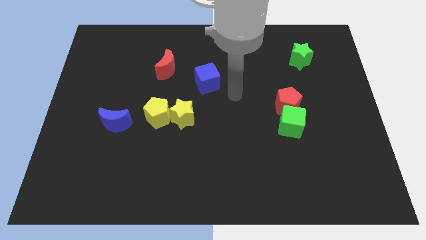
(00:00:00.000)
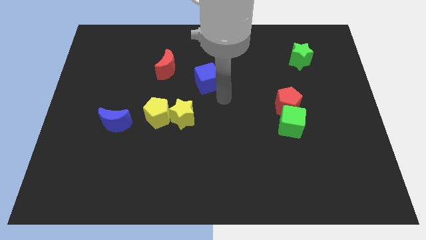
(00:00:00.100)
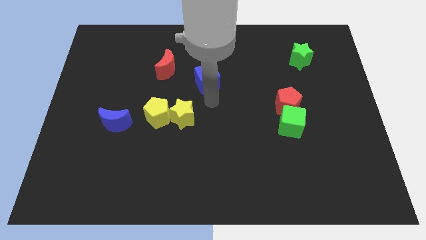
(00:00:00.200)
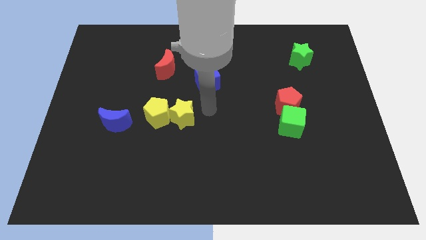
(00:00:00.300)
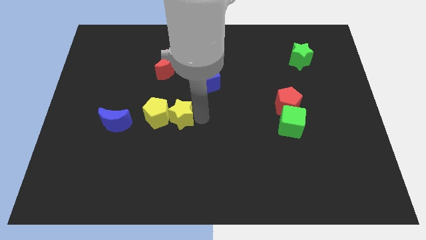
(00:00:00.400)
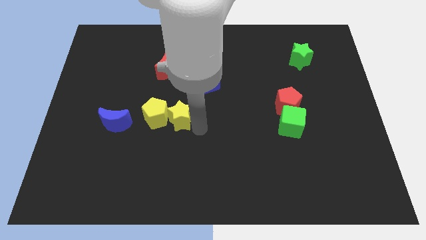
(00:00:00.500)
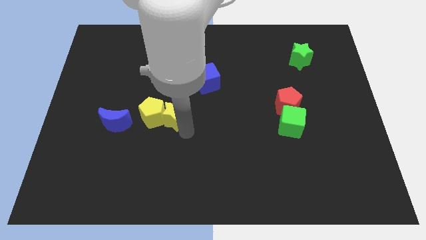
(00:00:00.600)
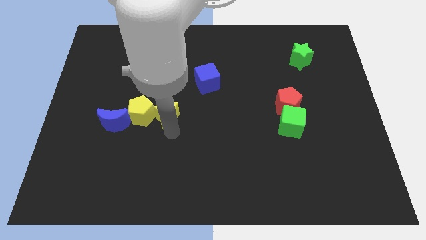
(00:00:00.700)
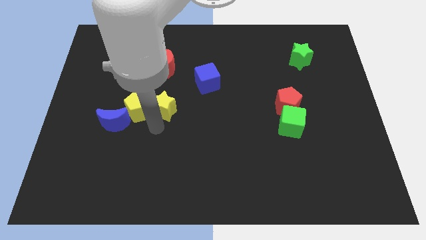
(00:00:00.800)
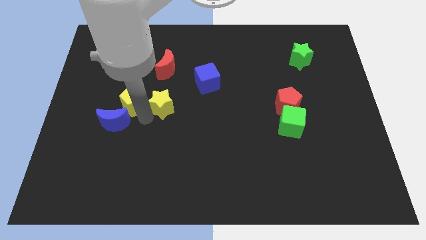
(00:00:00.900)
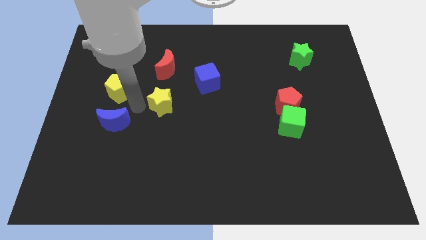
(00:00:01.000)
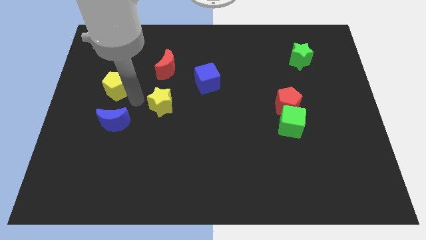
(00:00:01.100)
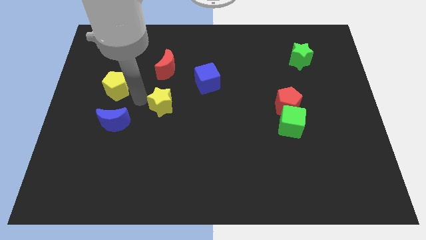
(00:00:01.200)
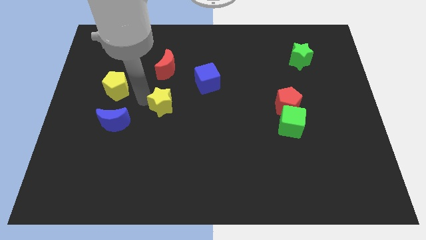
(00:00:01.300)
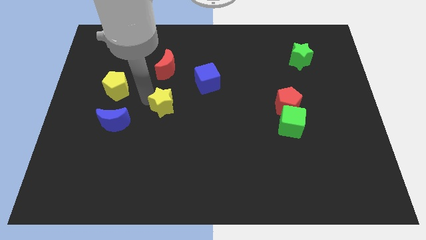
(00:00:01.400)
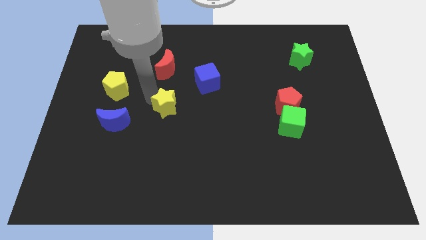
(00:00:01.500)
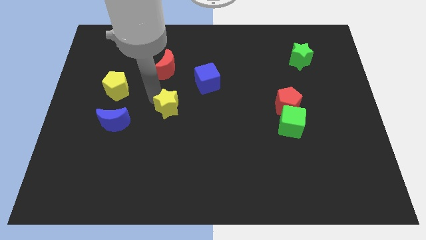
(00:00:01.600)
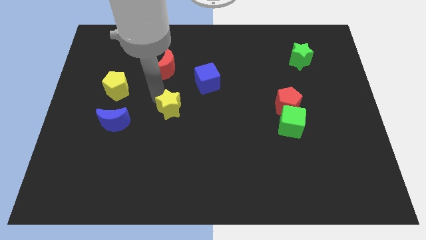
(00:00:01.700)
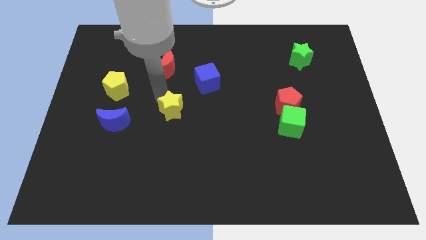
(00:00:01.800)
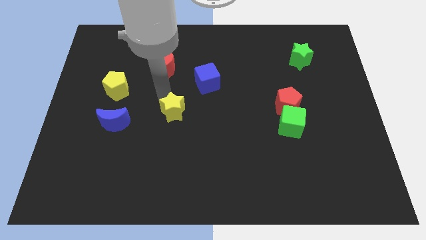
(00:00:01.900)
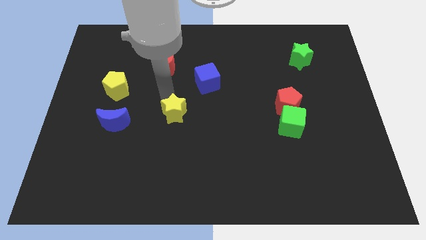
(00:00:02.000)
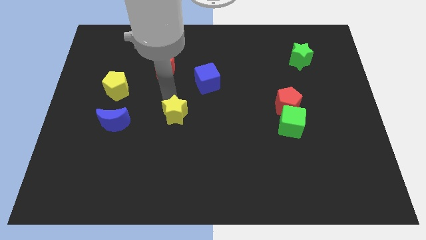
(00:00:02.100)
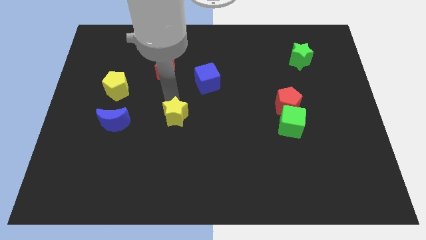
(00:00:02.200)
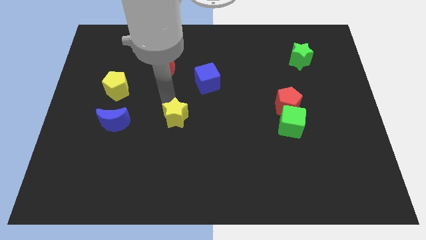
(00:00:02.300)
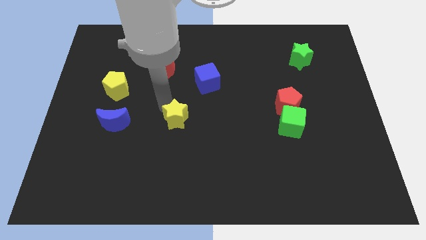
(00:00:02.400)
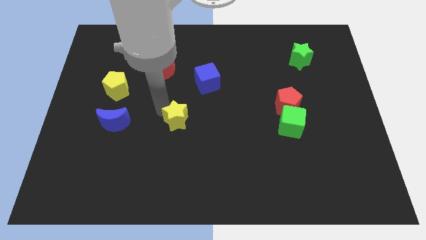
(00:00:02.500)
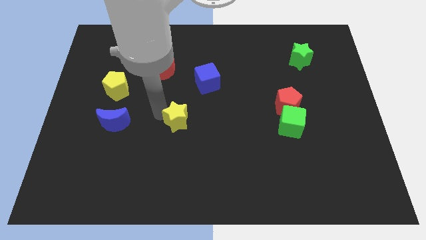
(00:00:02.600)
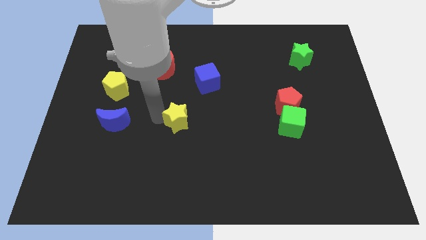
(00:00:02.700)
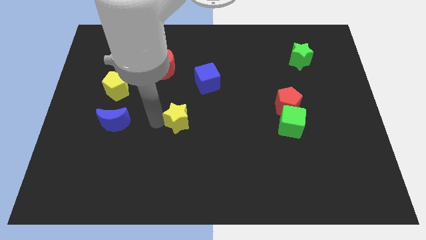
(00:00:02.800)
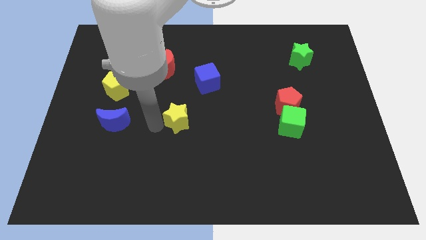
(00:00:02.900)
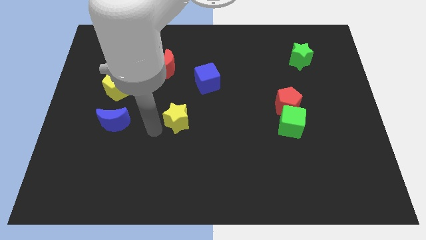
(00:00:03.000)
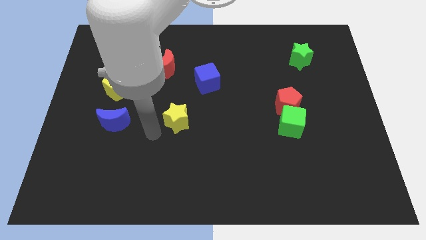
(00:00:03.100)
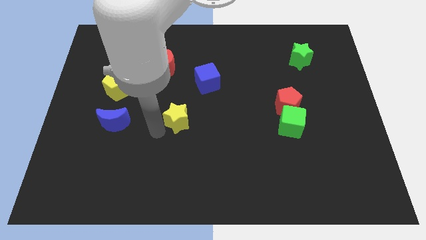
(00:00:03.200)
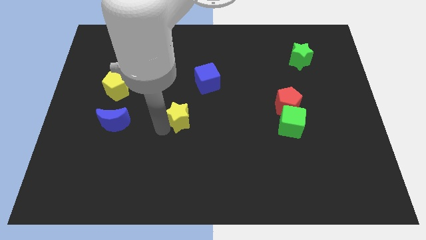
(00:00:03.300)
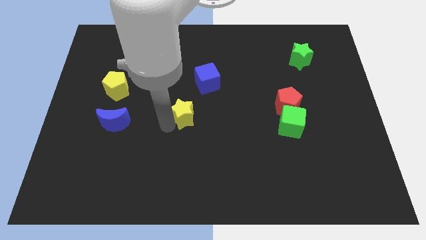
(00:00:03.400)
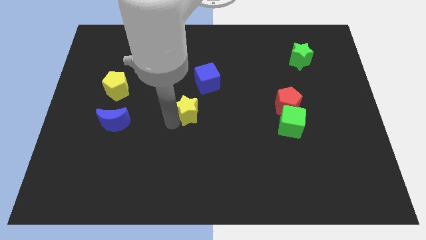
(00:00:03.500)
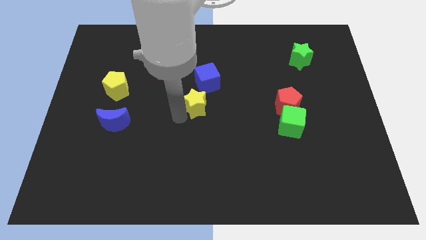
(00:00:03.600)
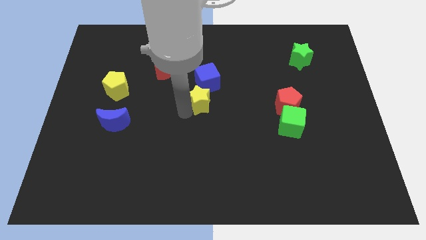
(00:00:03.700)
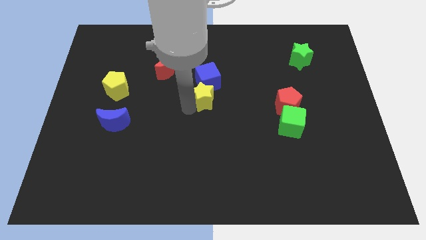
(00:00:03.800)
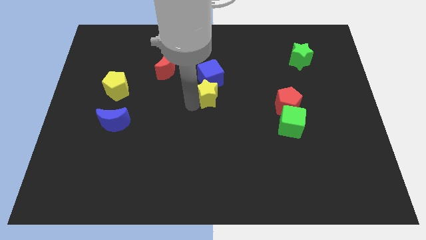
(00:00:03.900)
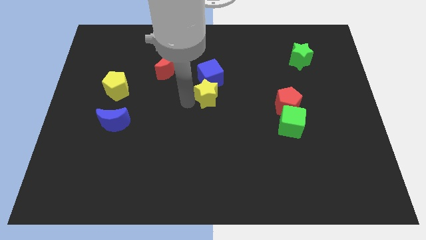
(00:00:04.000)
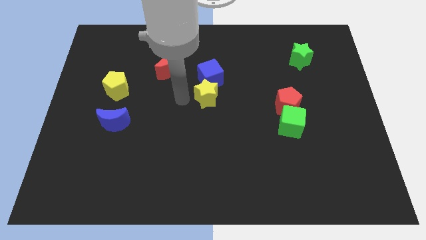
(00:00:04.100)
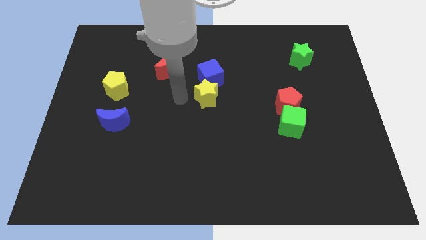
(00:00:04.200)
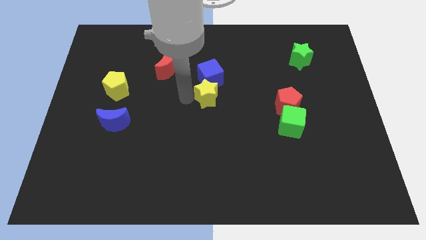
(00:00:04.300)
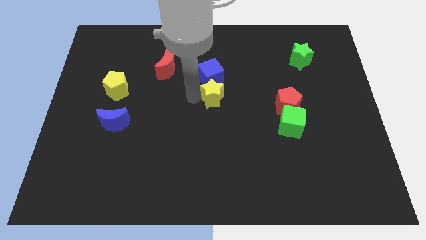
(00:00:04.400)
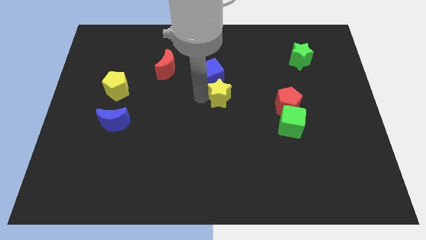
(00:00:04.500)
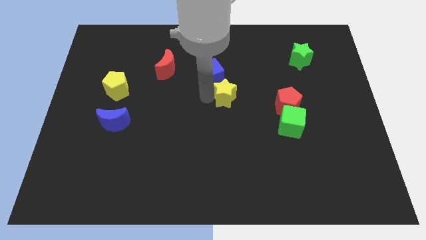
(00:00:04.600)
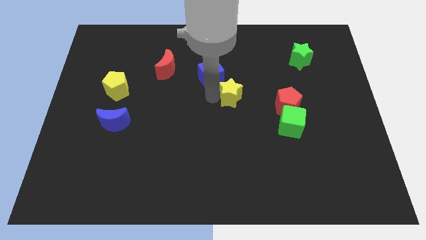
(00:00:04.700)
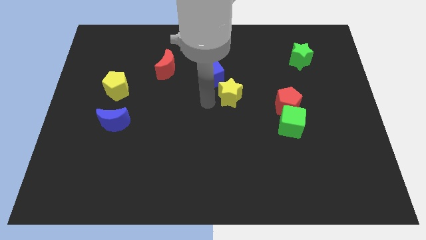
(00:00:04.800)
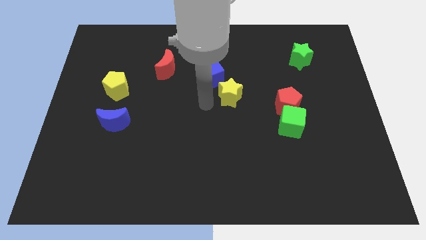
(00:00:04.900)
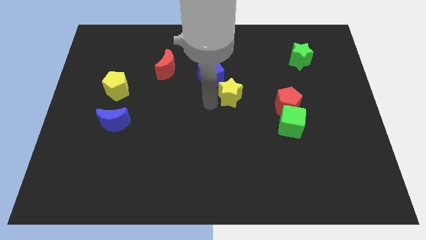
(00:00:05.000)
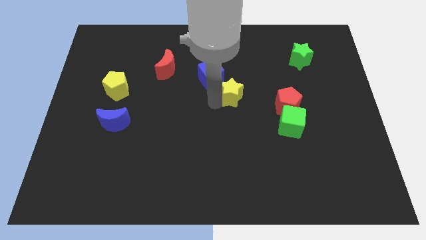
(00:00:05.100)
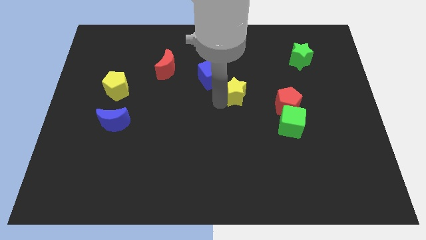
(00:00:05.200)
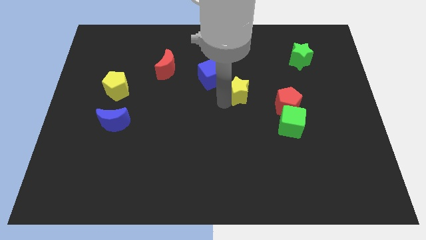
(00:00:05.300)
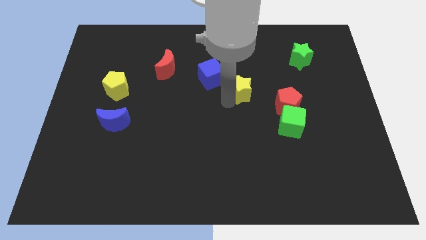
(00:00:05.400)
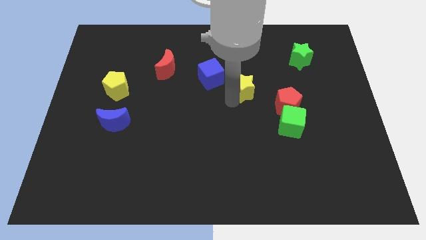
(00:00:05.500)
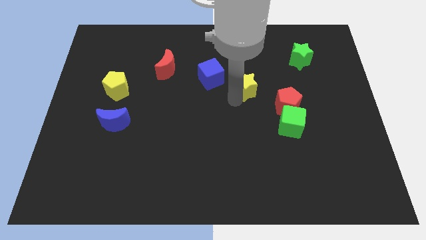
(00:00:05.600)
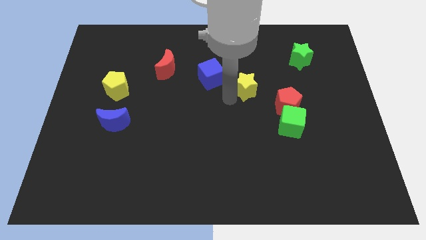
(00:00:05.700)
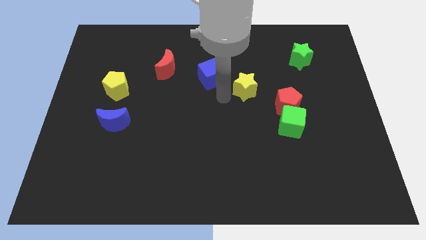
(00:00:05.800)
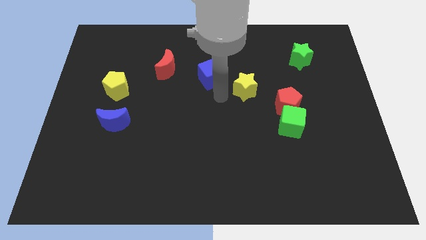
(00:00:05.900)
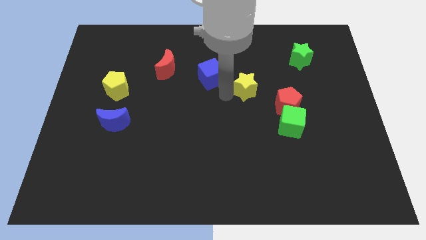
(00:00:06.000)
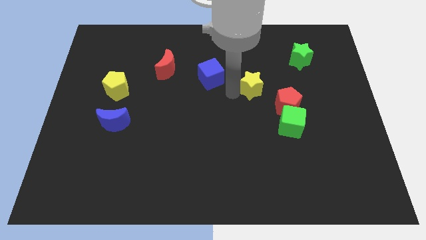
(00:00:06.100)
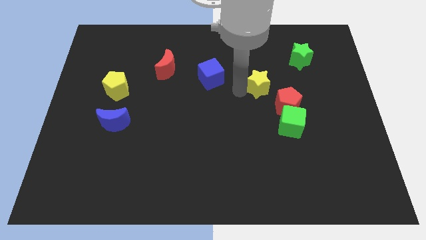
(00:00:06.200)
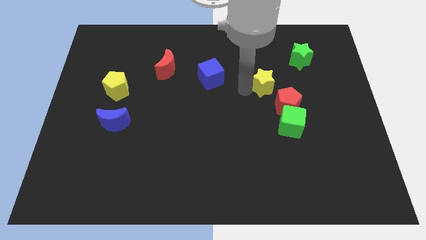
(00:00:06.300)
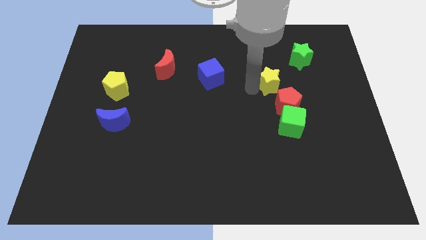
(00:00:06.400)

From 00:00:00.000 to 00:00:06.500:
slide the yellow star to the top of the red pentagon
